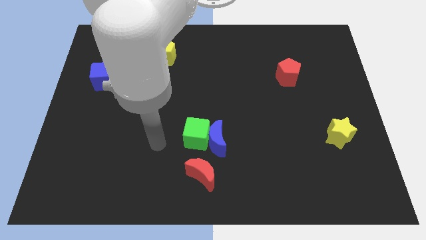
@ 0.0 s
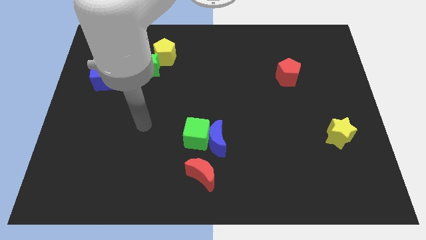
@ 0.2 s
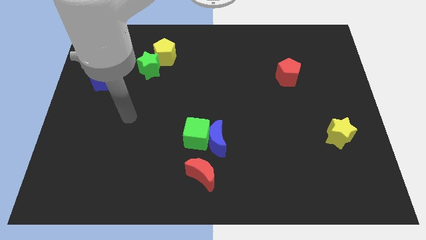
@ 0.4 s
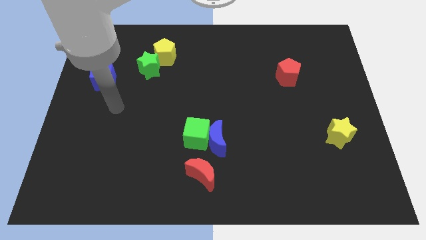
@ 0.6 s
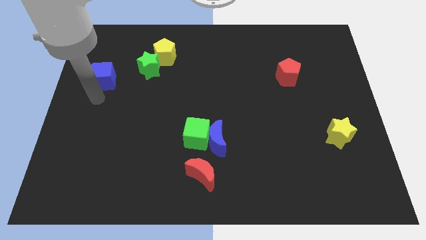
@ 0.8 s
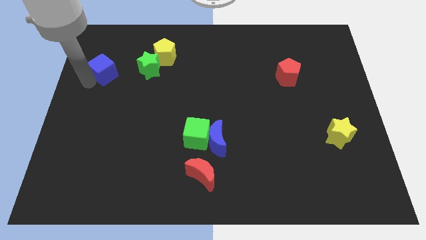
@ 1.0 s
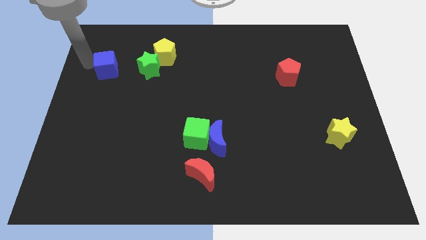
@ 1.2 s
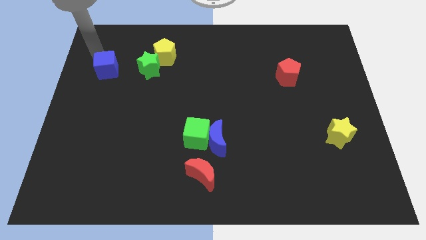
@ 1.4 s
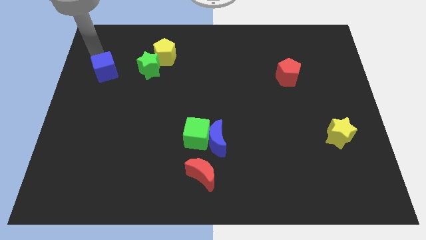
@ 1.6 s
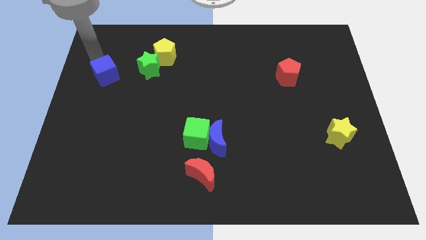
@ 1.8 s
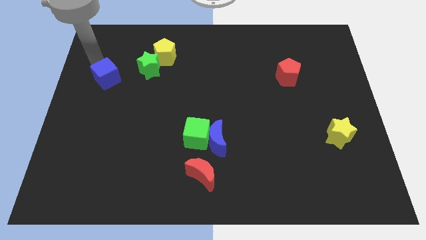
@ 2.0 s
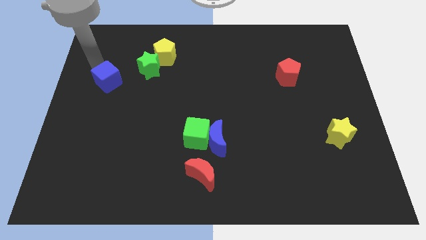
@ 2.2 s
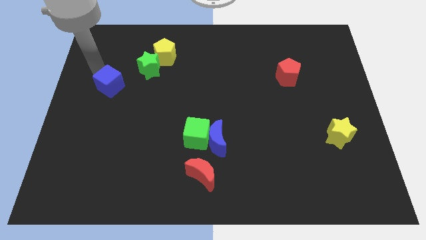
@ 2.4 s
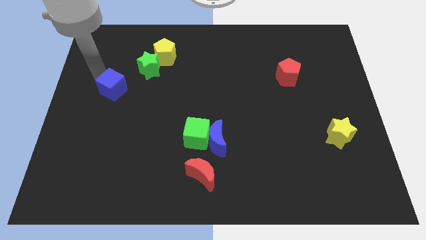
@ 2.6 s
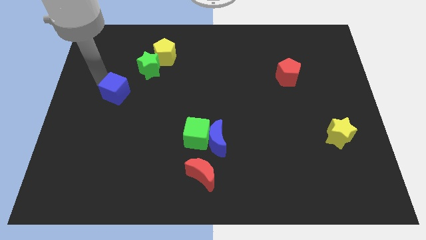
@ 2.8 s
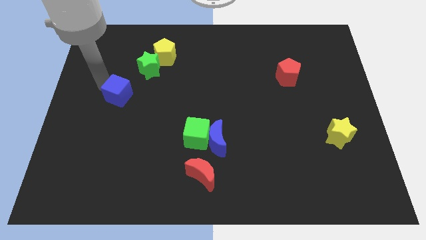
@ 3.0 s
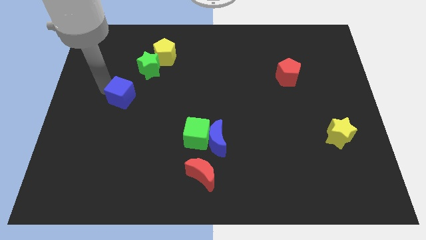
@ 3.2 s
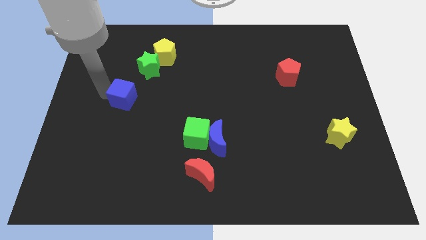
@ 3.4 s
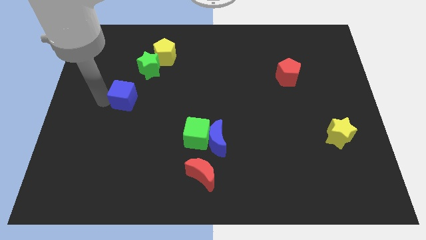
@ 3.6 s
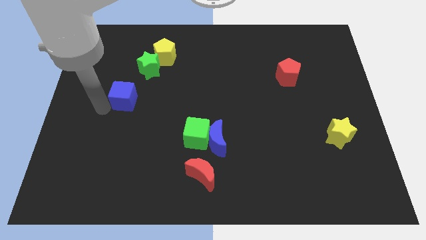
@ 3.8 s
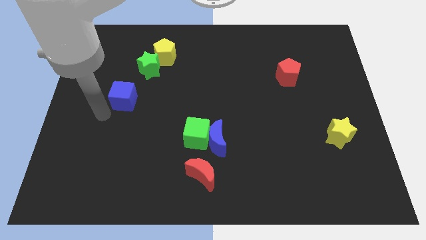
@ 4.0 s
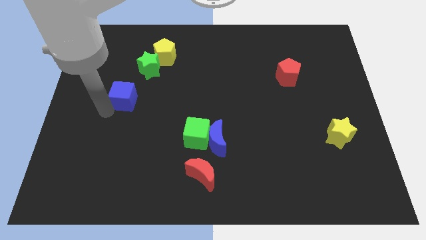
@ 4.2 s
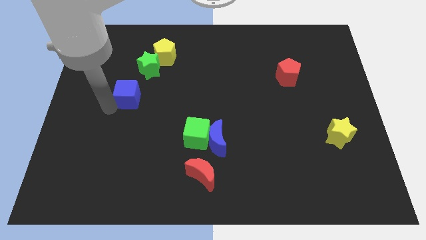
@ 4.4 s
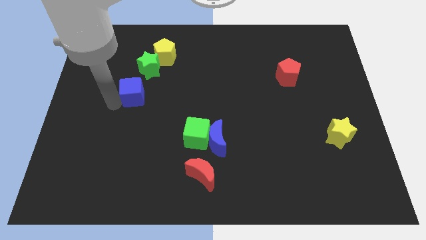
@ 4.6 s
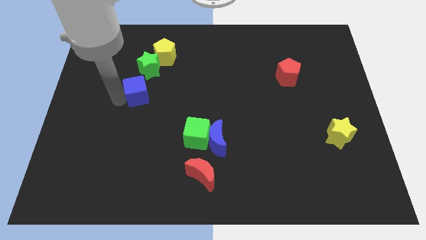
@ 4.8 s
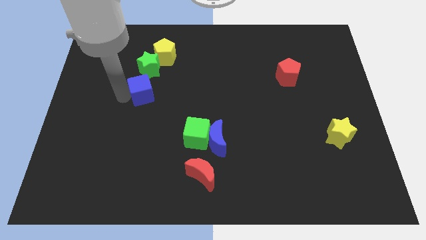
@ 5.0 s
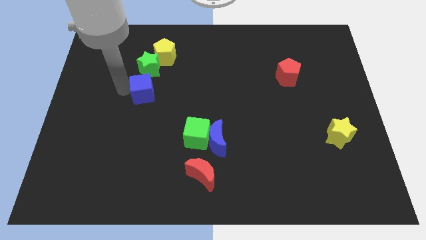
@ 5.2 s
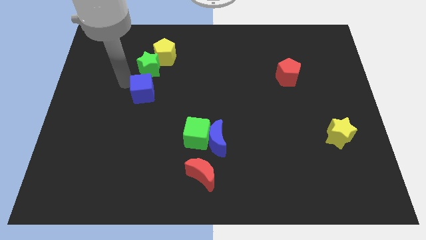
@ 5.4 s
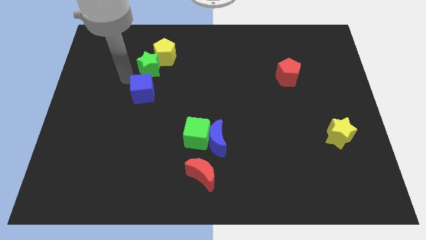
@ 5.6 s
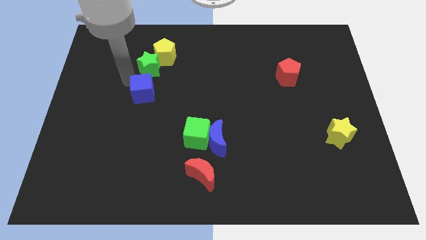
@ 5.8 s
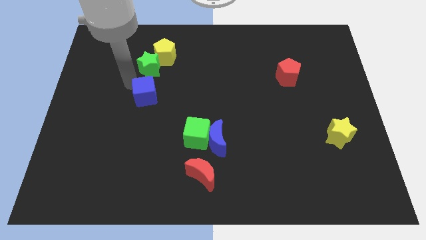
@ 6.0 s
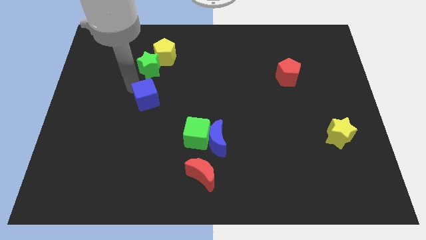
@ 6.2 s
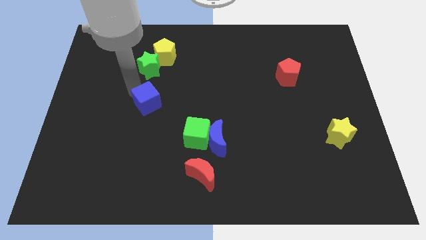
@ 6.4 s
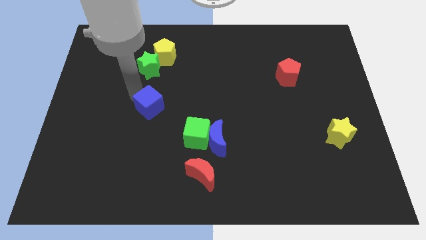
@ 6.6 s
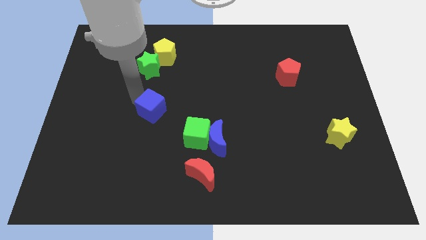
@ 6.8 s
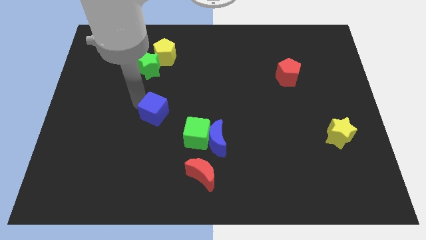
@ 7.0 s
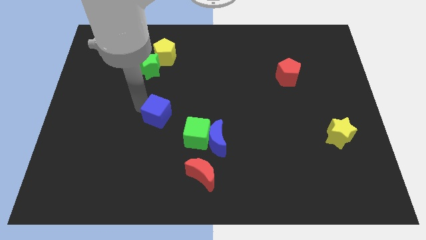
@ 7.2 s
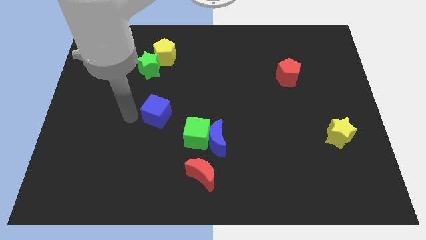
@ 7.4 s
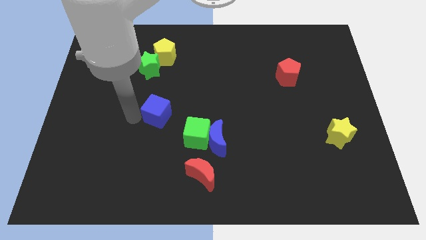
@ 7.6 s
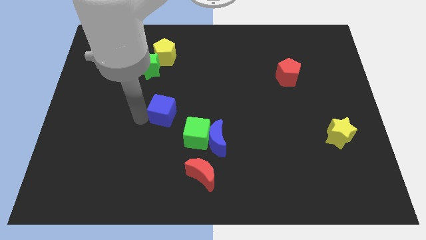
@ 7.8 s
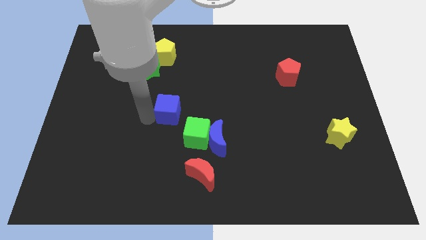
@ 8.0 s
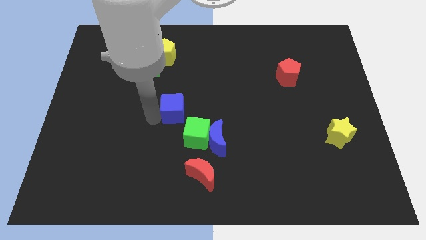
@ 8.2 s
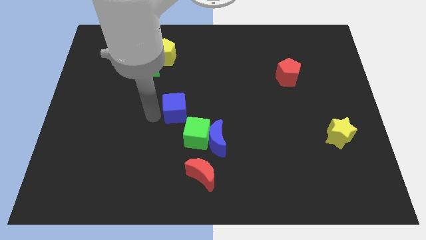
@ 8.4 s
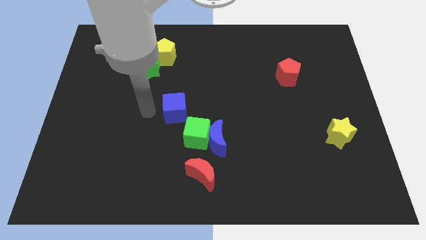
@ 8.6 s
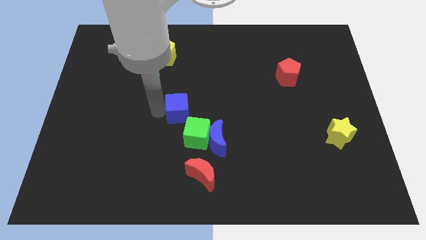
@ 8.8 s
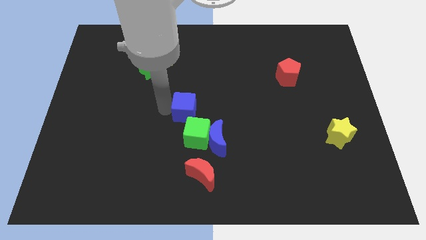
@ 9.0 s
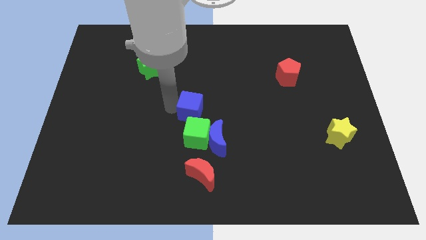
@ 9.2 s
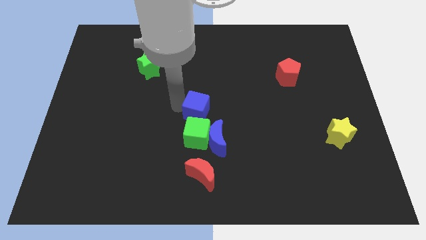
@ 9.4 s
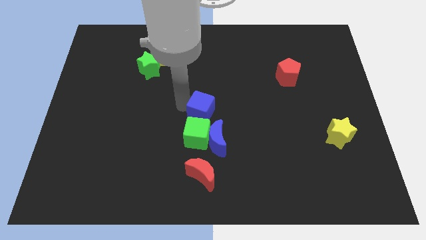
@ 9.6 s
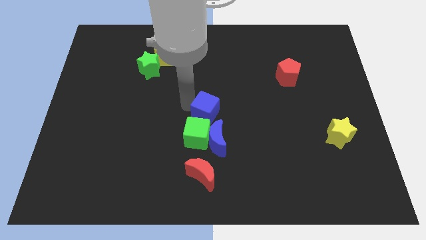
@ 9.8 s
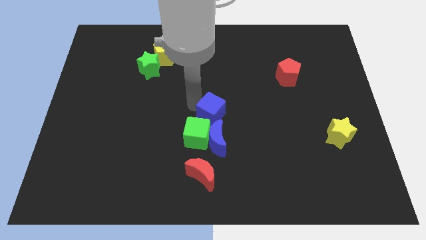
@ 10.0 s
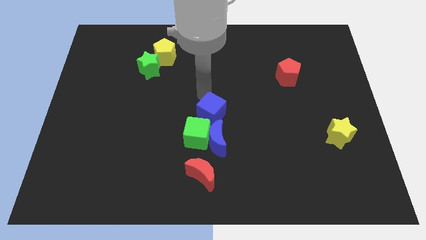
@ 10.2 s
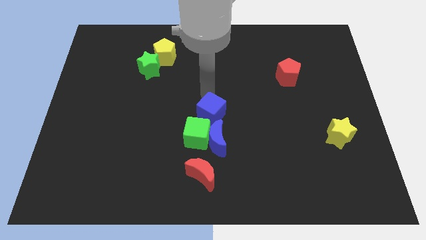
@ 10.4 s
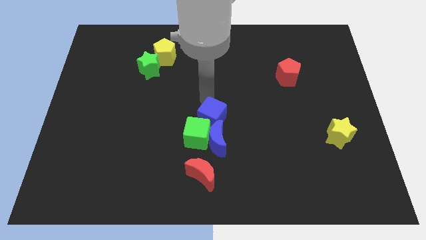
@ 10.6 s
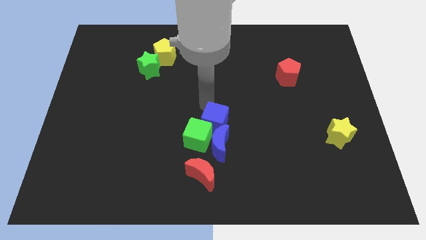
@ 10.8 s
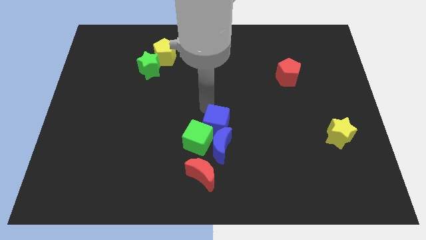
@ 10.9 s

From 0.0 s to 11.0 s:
push the blue cube to the blue moon

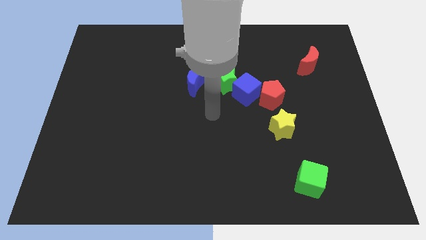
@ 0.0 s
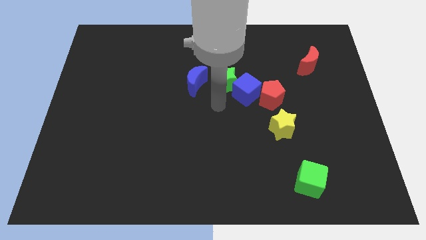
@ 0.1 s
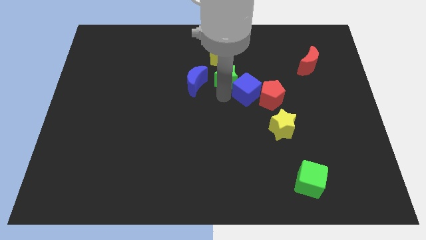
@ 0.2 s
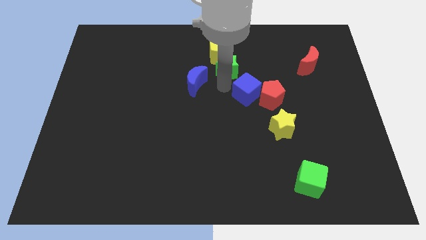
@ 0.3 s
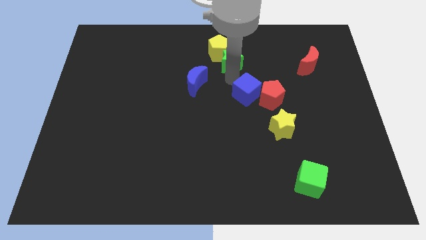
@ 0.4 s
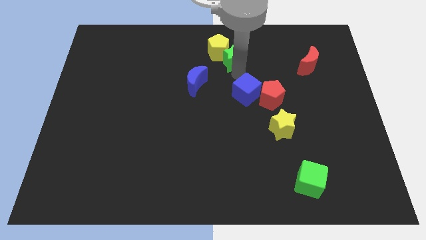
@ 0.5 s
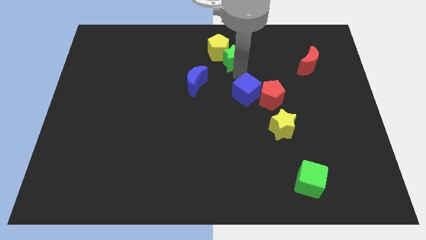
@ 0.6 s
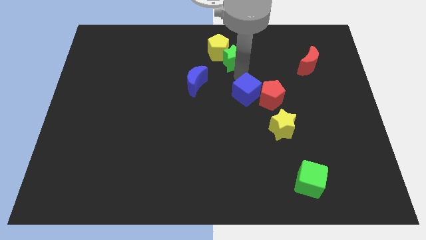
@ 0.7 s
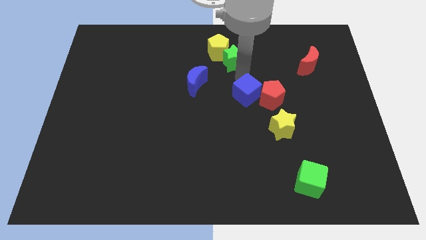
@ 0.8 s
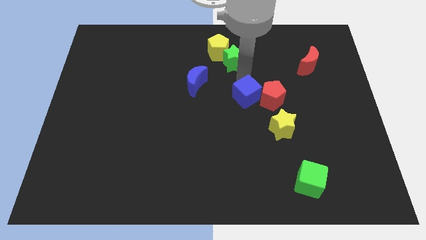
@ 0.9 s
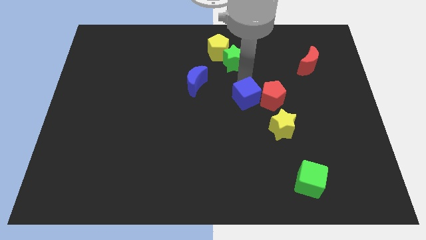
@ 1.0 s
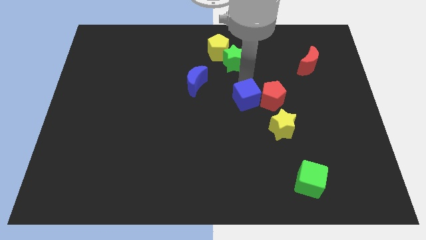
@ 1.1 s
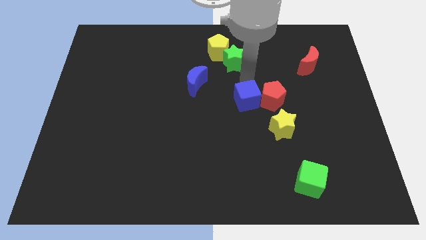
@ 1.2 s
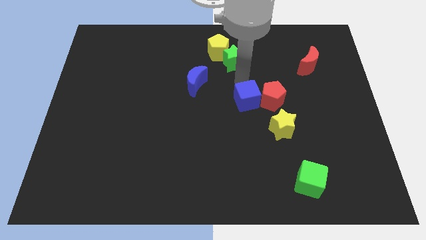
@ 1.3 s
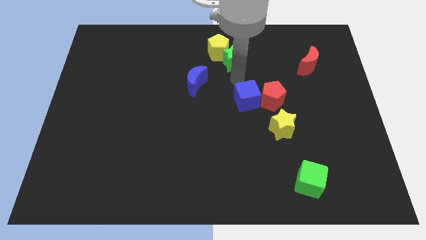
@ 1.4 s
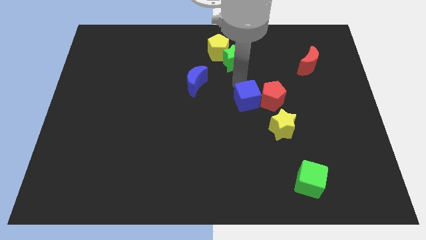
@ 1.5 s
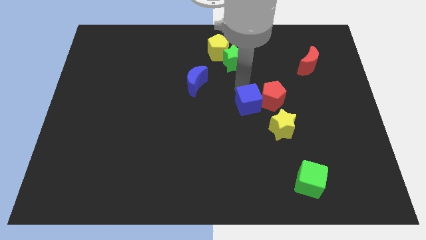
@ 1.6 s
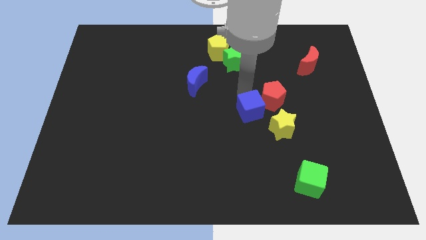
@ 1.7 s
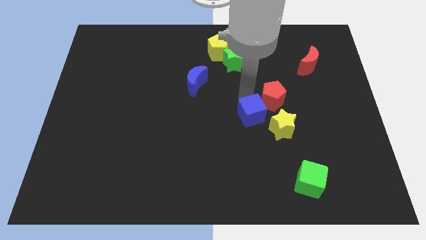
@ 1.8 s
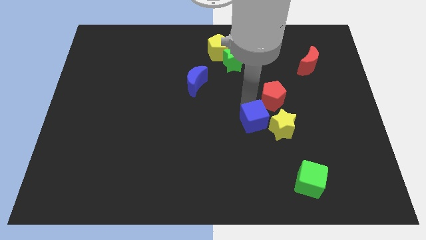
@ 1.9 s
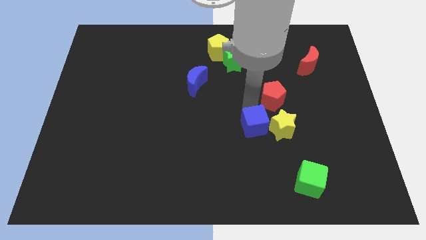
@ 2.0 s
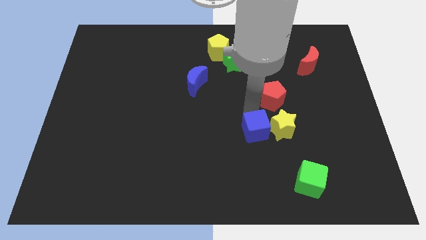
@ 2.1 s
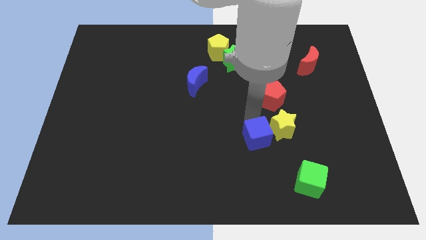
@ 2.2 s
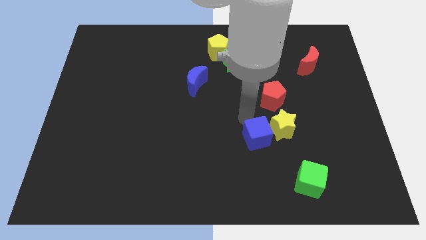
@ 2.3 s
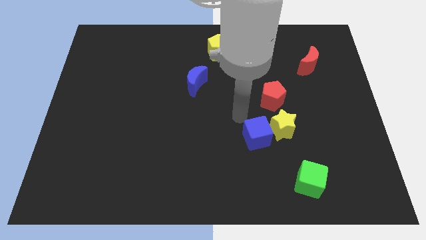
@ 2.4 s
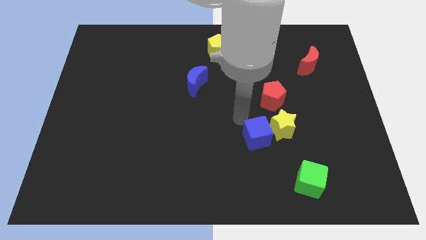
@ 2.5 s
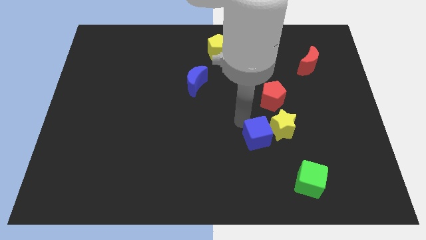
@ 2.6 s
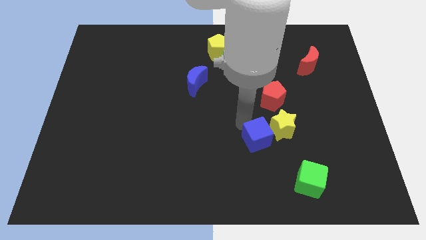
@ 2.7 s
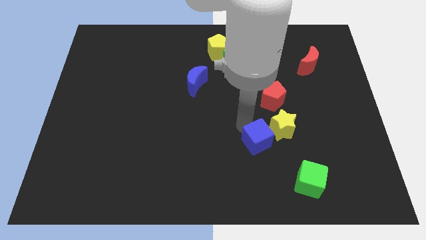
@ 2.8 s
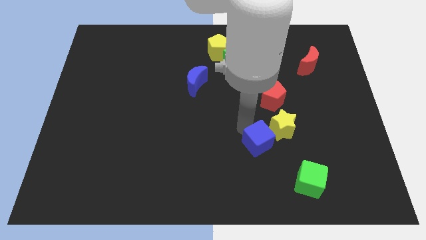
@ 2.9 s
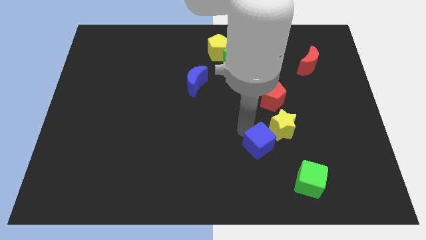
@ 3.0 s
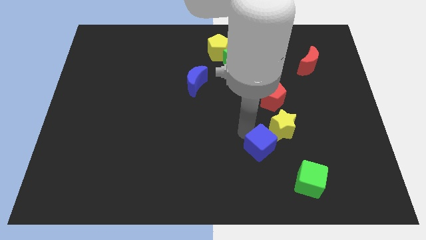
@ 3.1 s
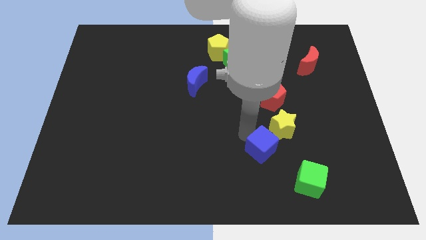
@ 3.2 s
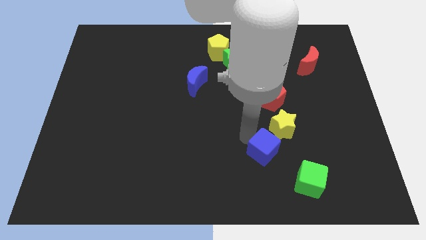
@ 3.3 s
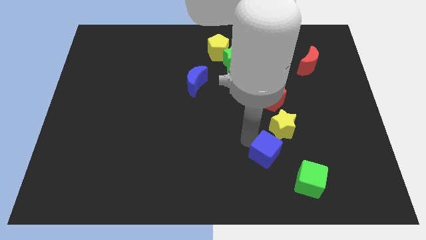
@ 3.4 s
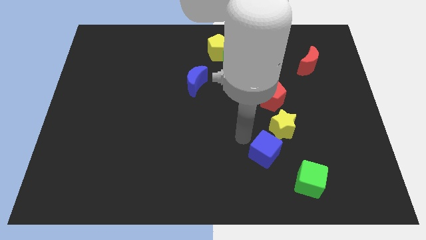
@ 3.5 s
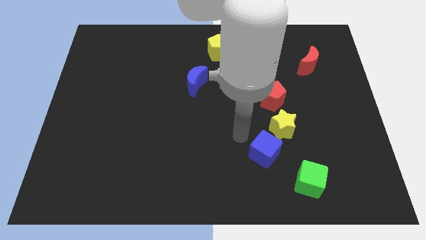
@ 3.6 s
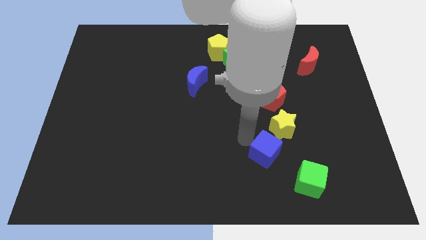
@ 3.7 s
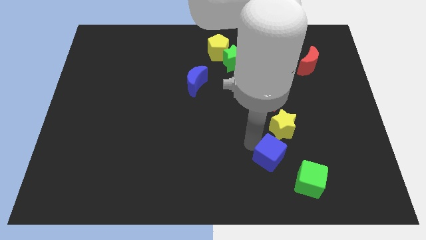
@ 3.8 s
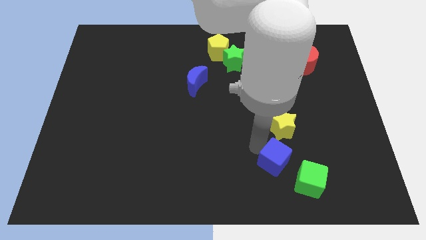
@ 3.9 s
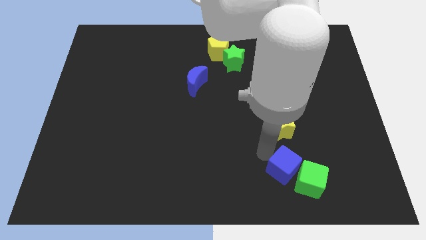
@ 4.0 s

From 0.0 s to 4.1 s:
move the blue cube close to the green cube
